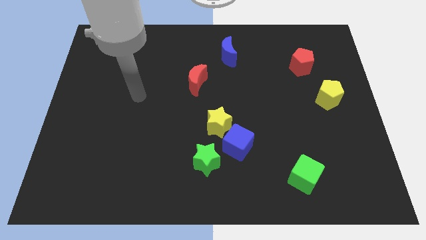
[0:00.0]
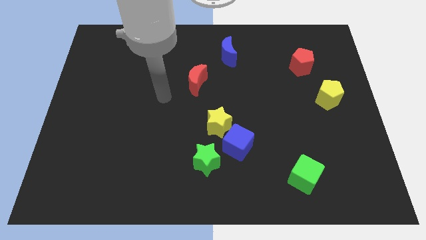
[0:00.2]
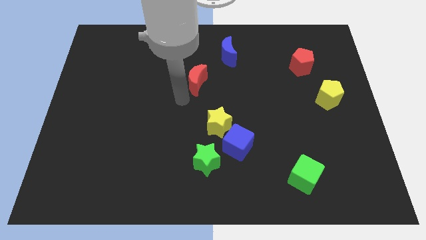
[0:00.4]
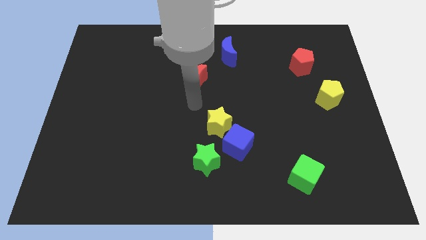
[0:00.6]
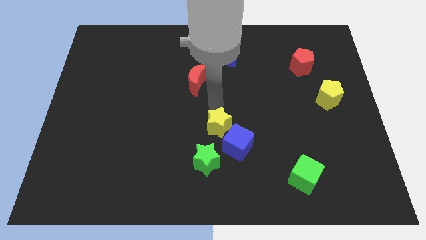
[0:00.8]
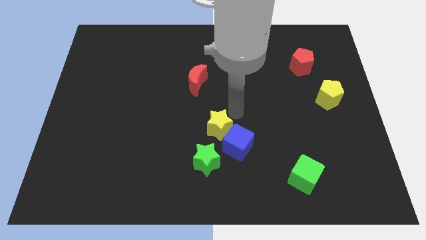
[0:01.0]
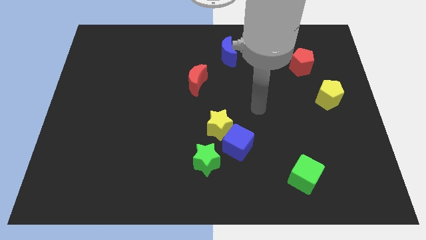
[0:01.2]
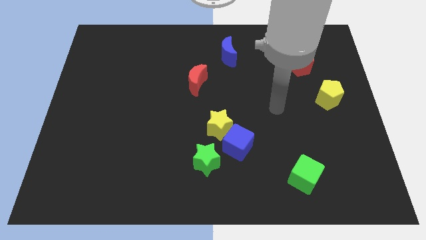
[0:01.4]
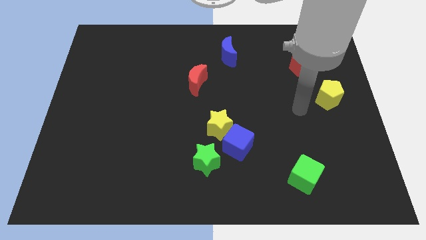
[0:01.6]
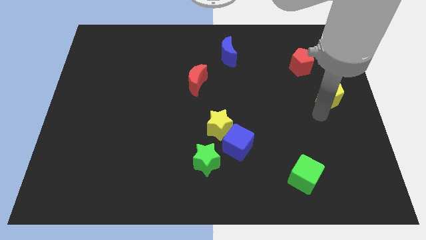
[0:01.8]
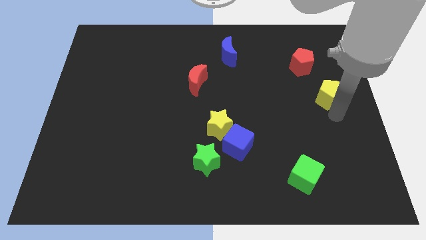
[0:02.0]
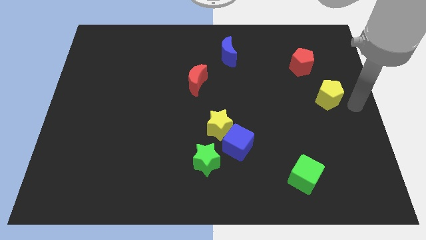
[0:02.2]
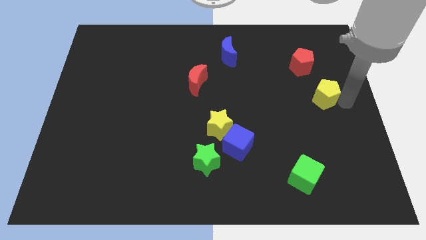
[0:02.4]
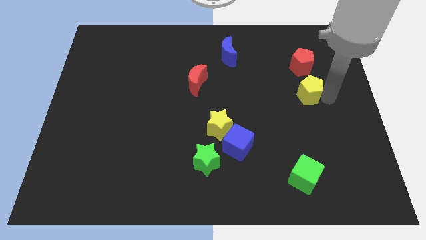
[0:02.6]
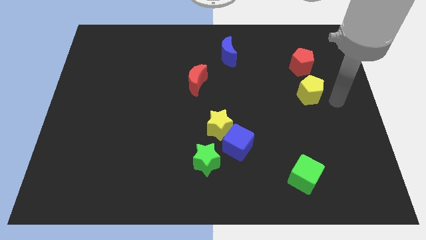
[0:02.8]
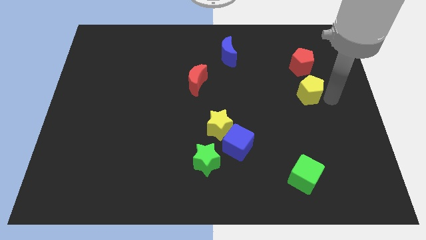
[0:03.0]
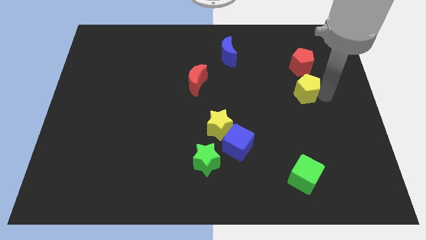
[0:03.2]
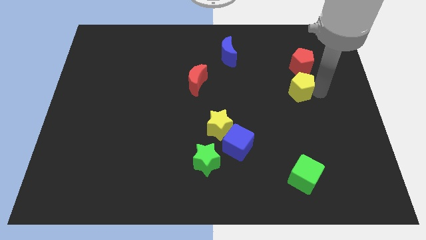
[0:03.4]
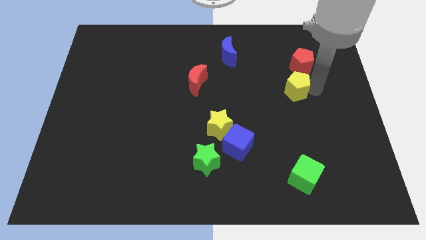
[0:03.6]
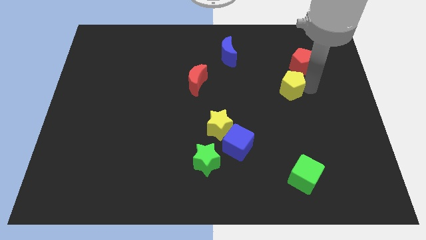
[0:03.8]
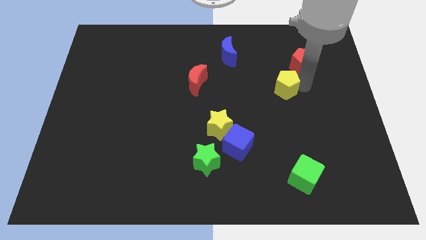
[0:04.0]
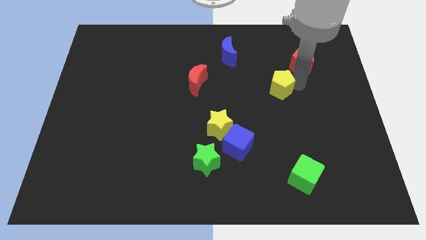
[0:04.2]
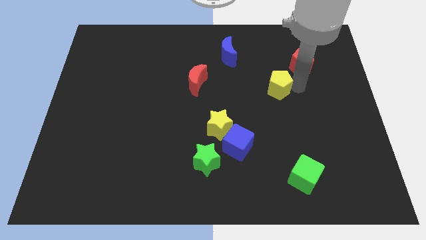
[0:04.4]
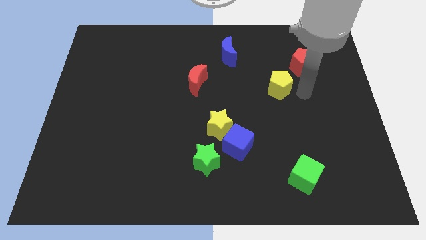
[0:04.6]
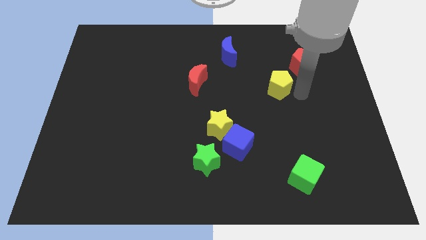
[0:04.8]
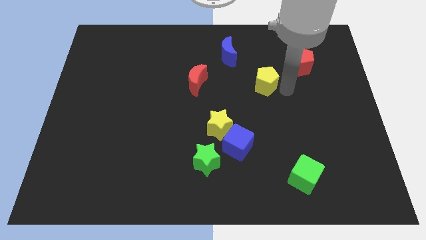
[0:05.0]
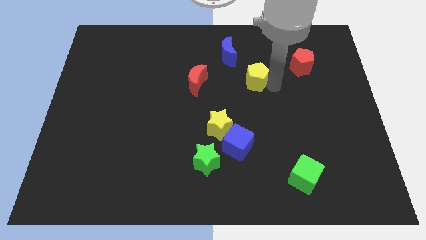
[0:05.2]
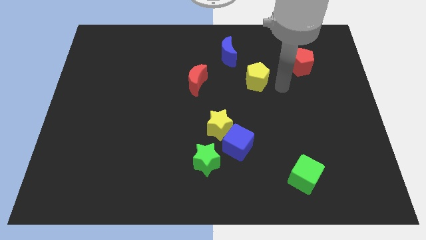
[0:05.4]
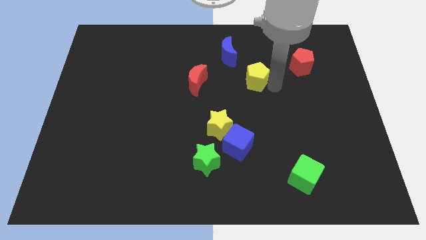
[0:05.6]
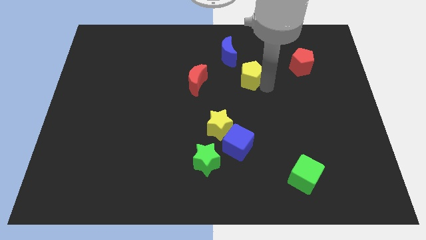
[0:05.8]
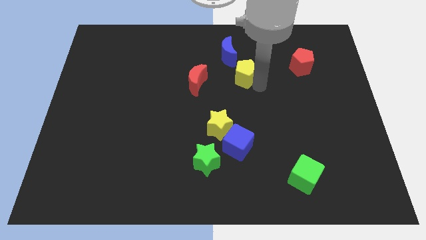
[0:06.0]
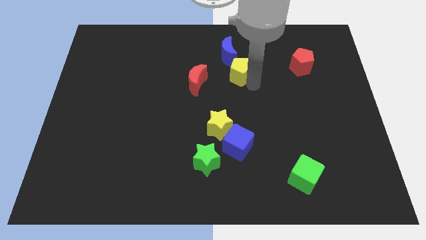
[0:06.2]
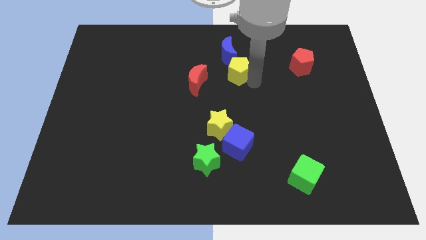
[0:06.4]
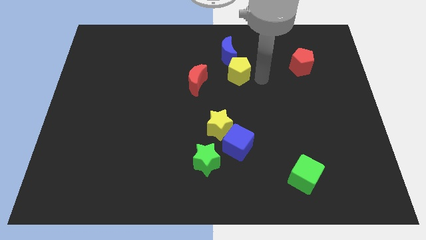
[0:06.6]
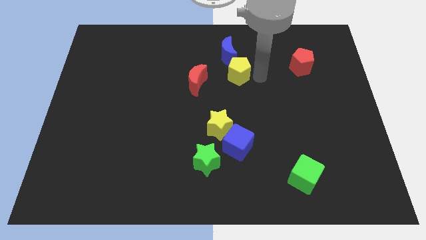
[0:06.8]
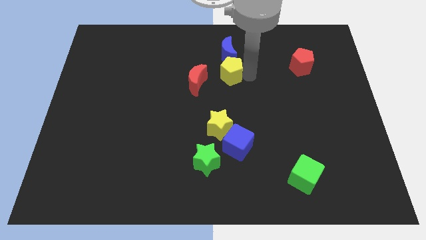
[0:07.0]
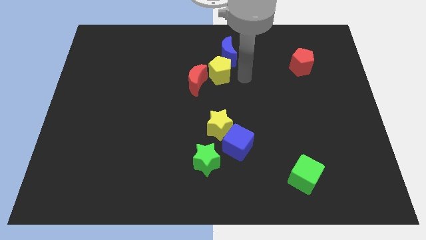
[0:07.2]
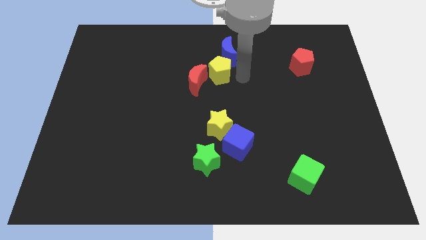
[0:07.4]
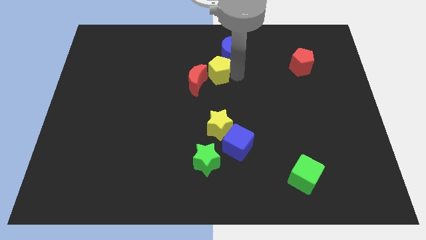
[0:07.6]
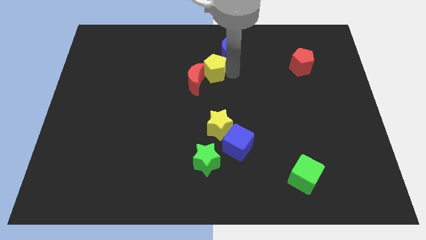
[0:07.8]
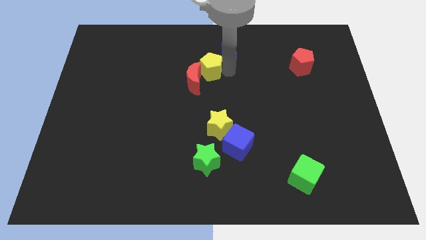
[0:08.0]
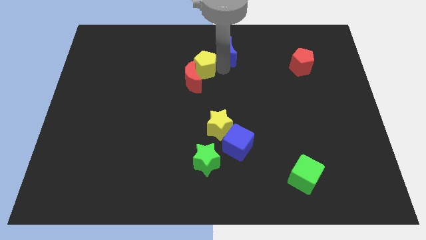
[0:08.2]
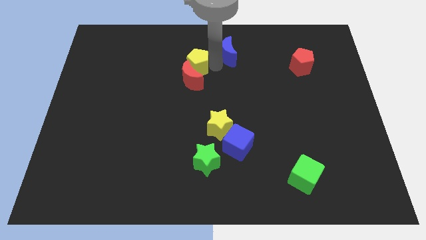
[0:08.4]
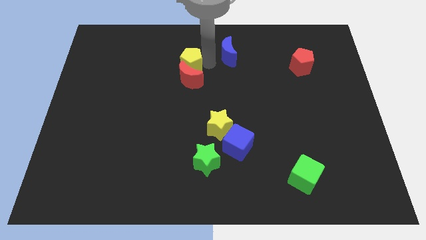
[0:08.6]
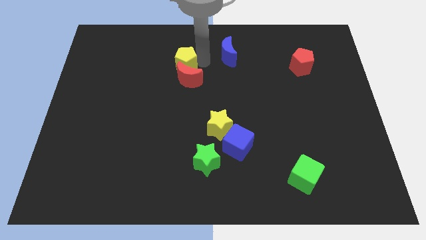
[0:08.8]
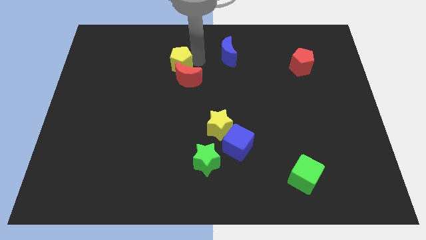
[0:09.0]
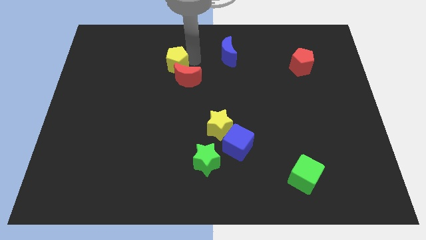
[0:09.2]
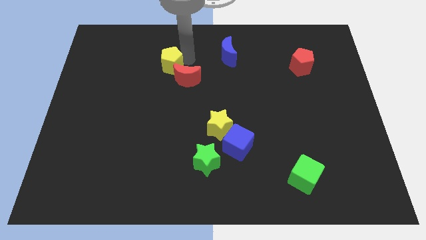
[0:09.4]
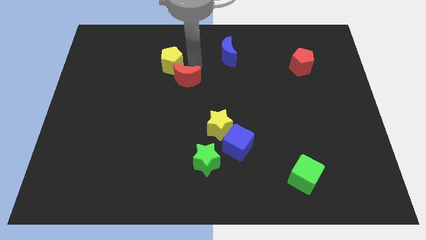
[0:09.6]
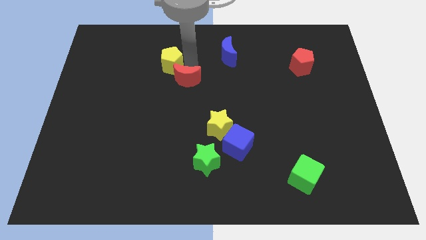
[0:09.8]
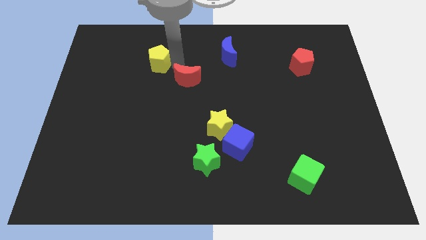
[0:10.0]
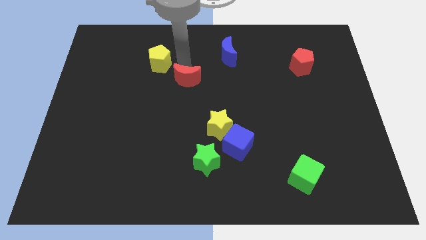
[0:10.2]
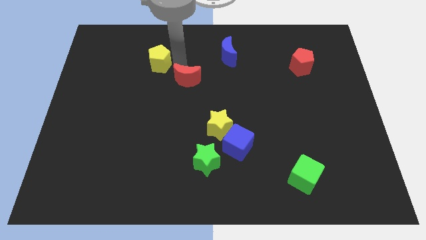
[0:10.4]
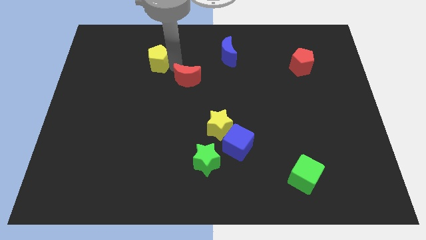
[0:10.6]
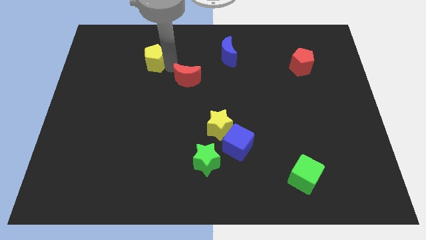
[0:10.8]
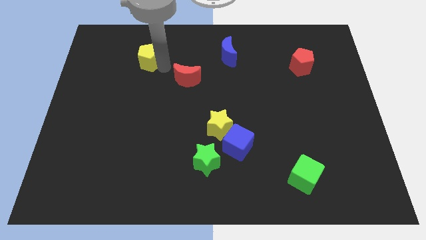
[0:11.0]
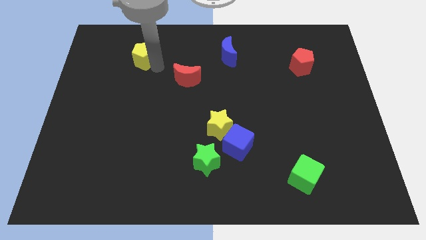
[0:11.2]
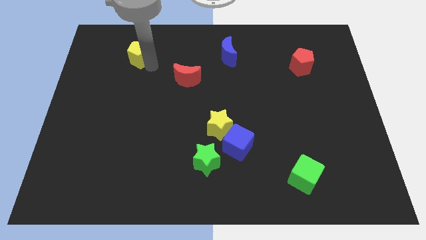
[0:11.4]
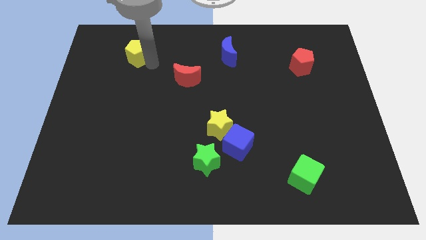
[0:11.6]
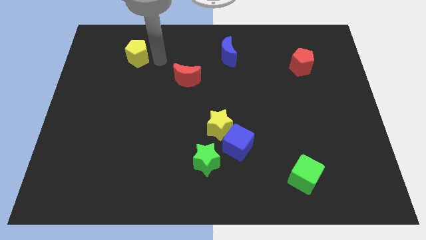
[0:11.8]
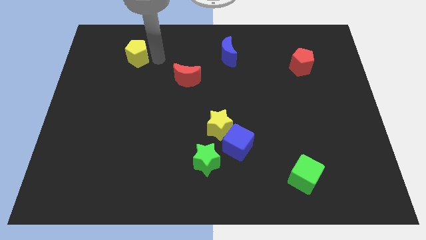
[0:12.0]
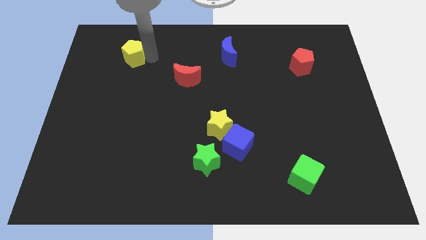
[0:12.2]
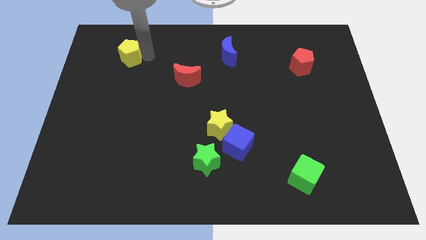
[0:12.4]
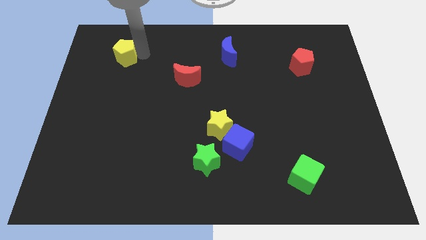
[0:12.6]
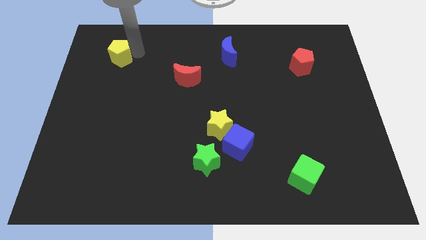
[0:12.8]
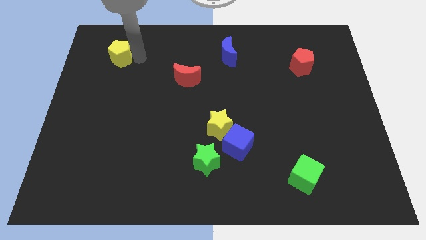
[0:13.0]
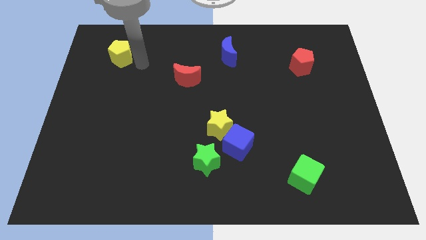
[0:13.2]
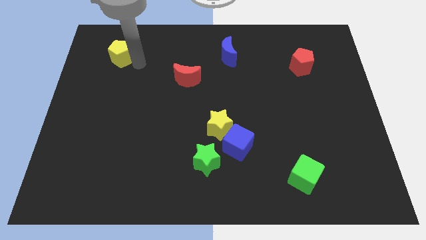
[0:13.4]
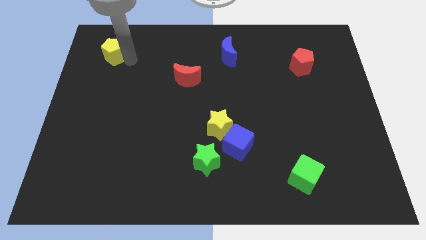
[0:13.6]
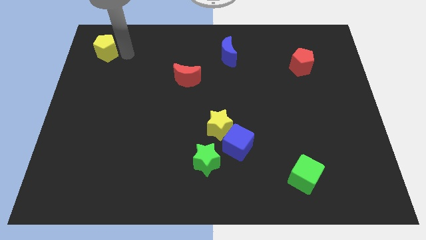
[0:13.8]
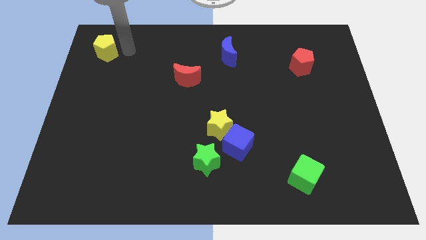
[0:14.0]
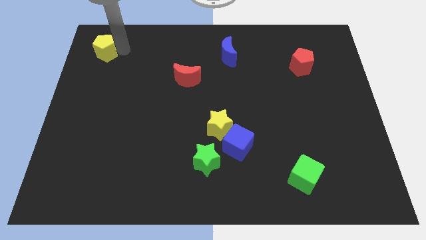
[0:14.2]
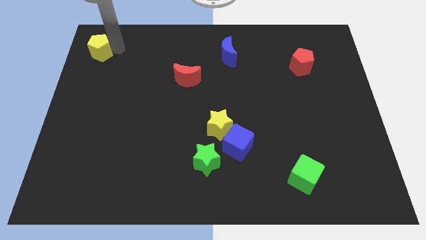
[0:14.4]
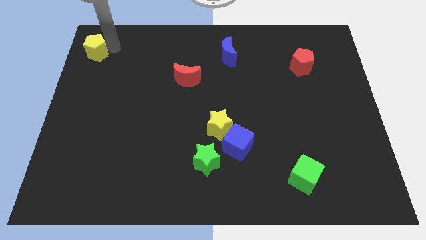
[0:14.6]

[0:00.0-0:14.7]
push the yellow pentagon to the upper left corner
